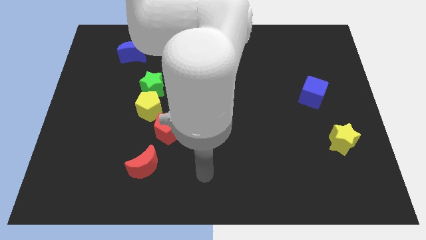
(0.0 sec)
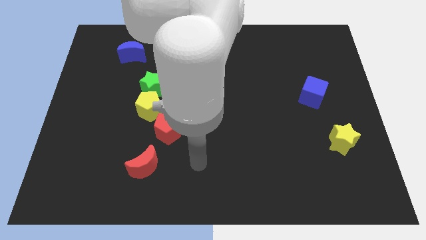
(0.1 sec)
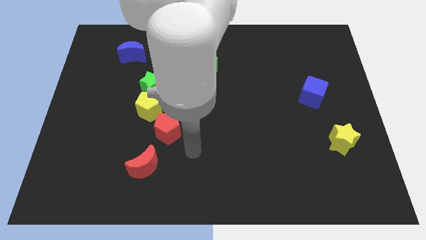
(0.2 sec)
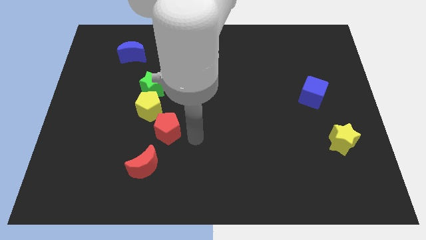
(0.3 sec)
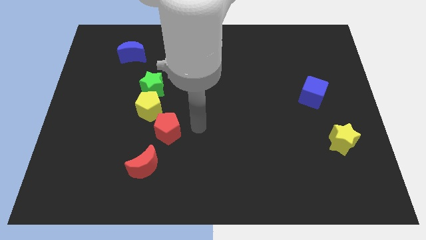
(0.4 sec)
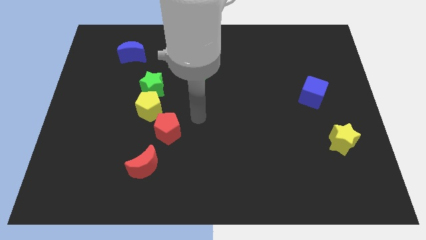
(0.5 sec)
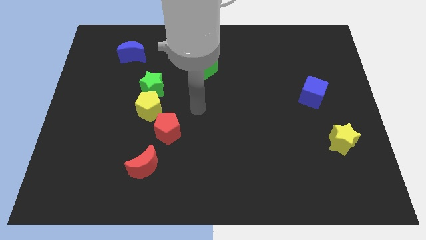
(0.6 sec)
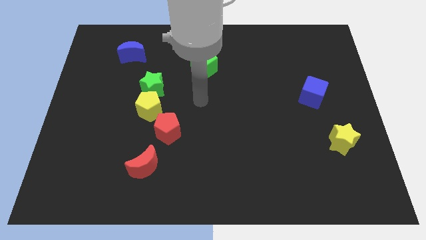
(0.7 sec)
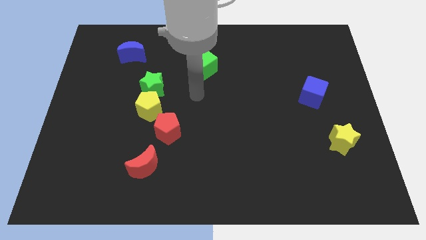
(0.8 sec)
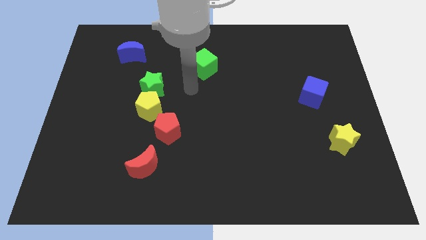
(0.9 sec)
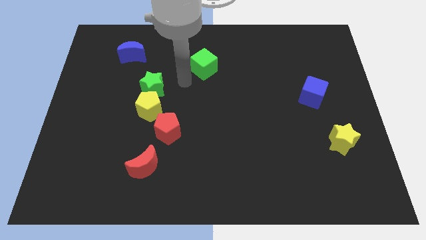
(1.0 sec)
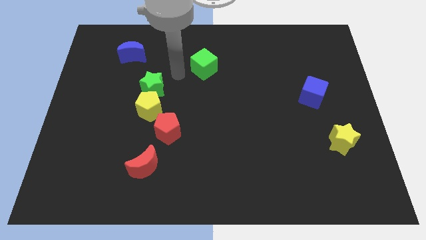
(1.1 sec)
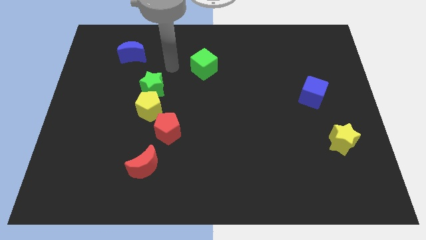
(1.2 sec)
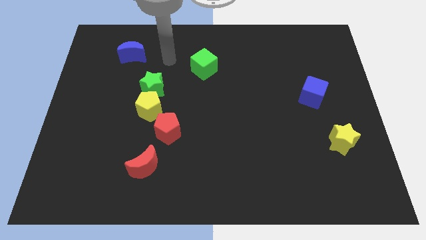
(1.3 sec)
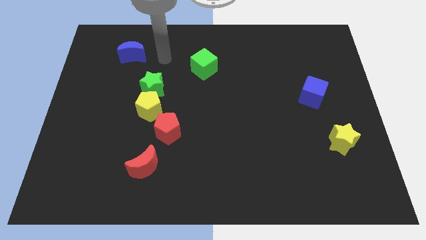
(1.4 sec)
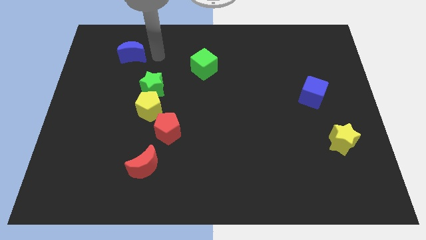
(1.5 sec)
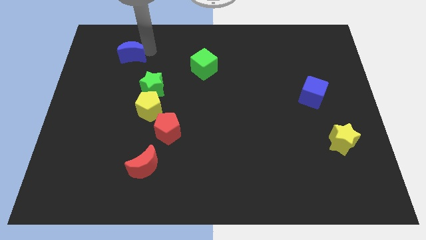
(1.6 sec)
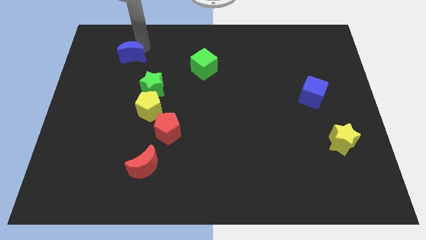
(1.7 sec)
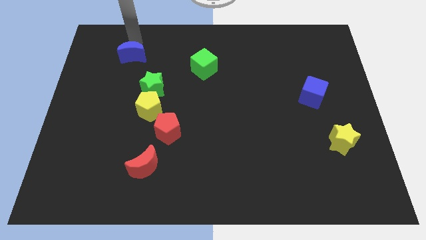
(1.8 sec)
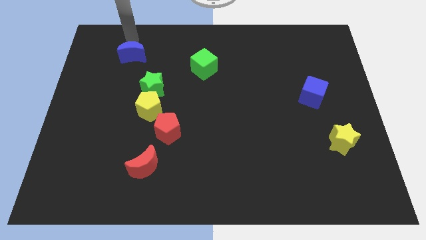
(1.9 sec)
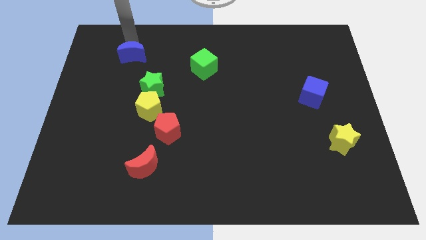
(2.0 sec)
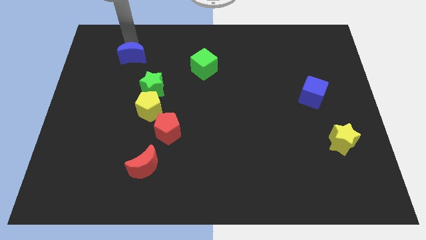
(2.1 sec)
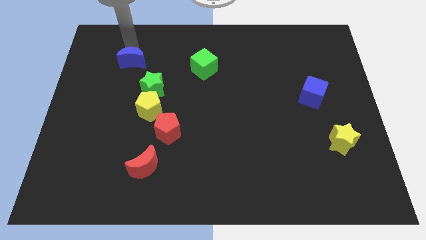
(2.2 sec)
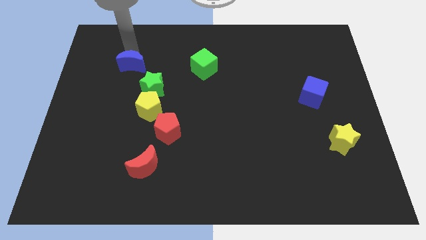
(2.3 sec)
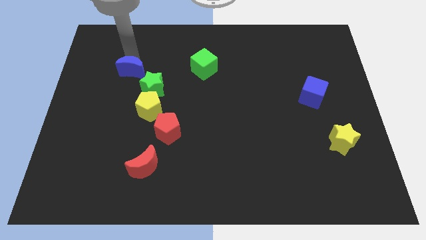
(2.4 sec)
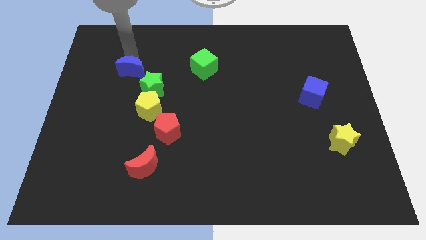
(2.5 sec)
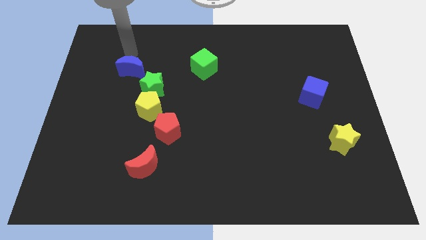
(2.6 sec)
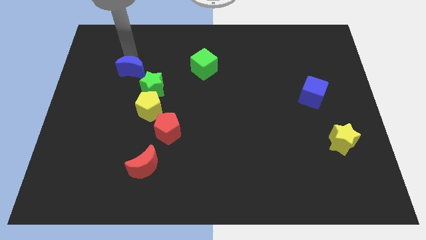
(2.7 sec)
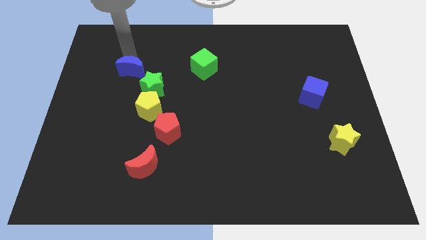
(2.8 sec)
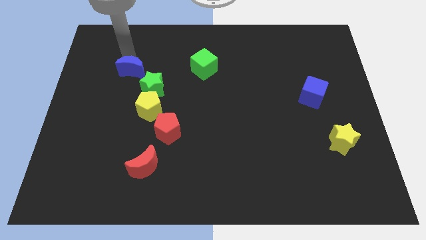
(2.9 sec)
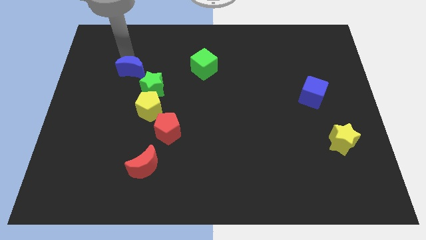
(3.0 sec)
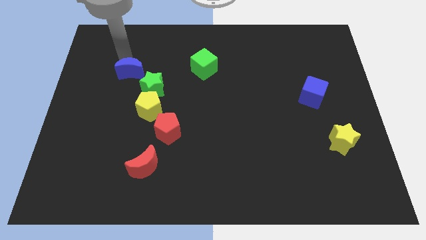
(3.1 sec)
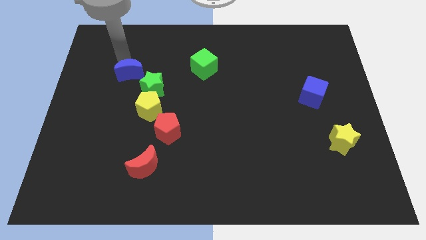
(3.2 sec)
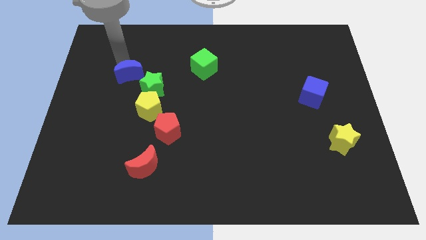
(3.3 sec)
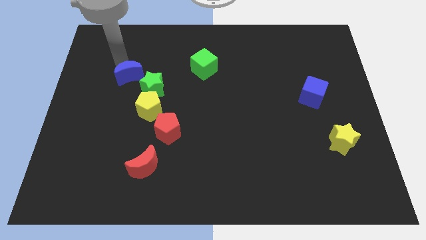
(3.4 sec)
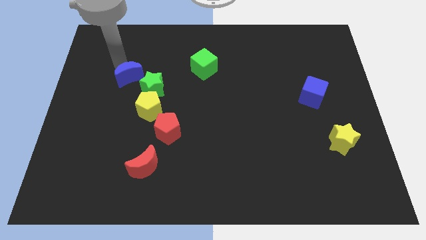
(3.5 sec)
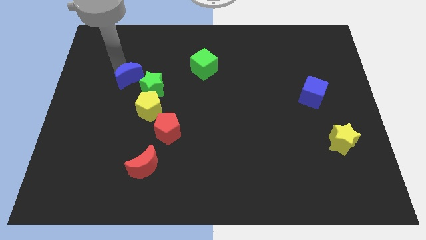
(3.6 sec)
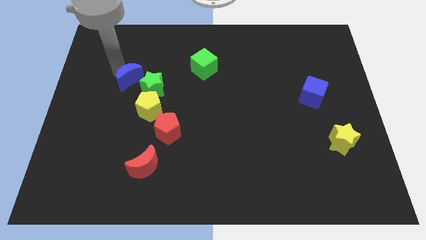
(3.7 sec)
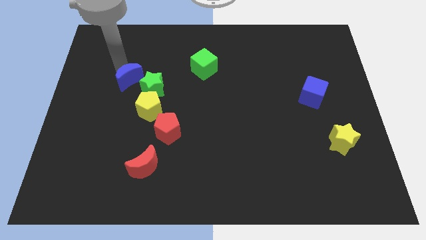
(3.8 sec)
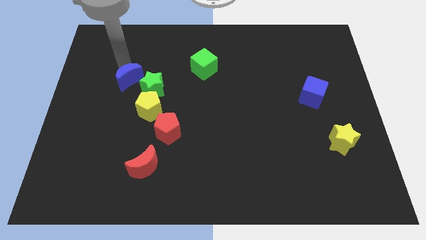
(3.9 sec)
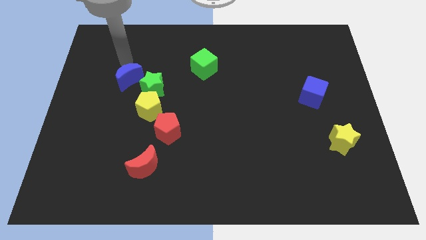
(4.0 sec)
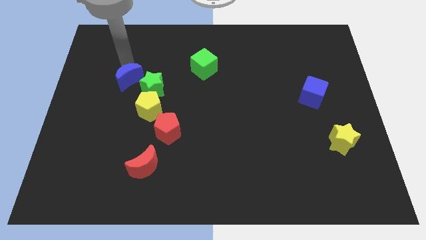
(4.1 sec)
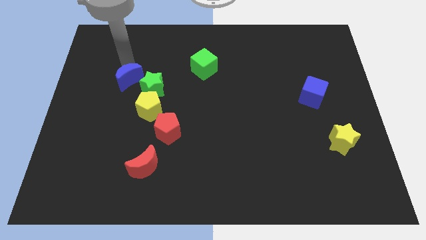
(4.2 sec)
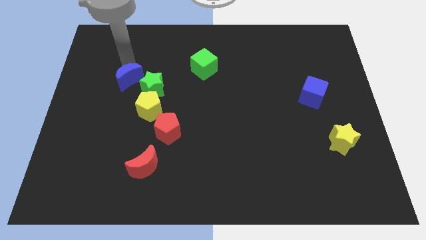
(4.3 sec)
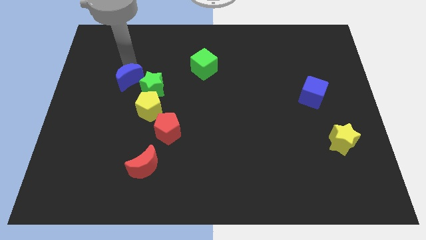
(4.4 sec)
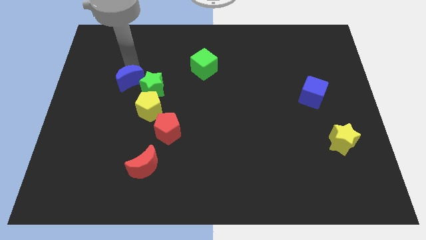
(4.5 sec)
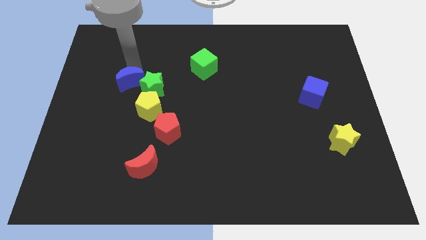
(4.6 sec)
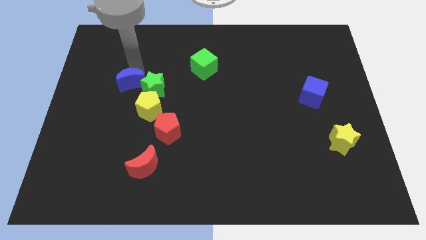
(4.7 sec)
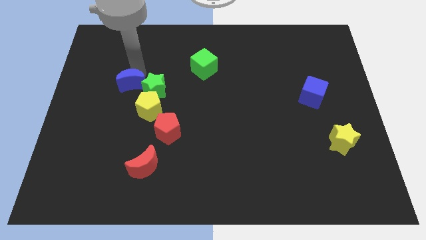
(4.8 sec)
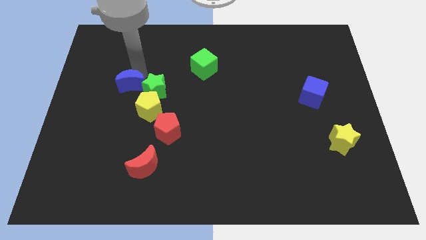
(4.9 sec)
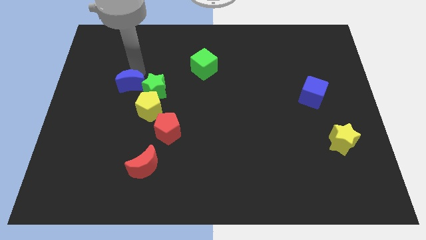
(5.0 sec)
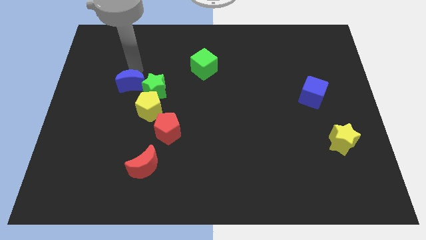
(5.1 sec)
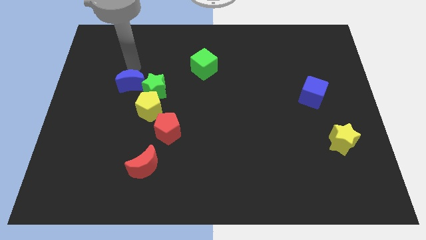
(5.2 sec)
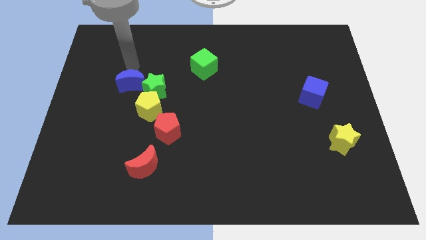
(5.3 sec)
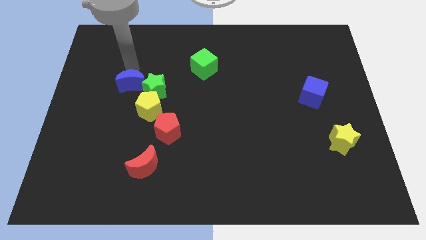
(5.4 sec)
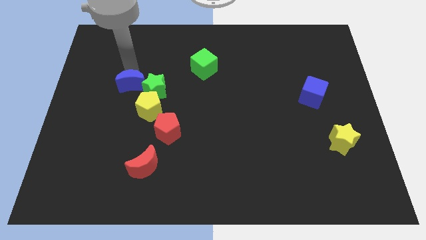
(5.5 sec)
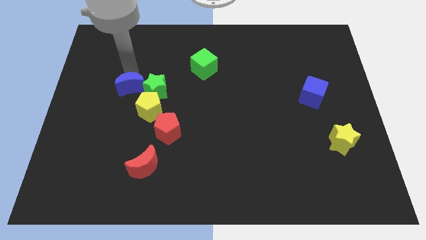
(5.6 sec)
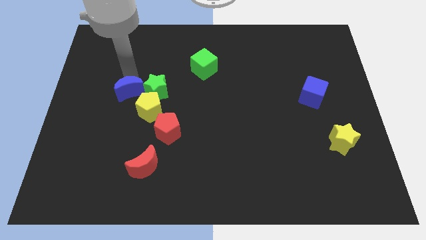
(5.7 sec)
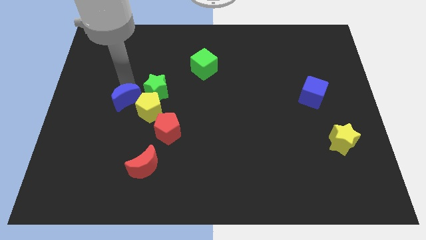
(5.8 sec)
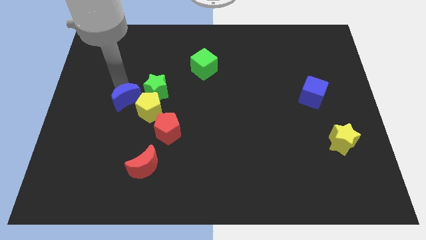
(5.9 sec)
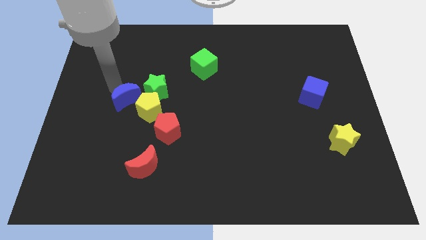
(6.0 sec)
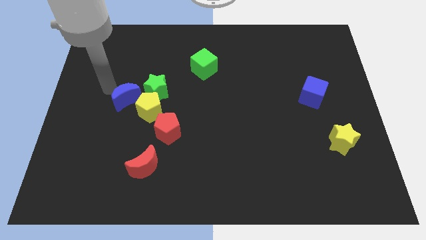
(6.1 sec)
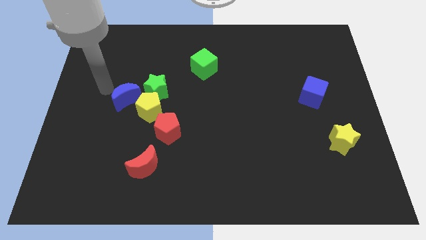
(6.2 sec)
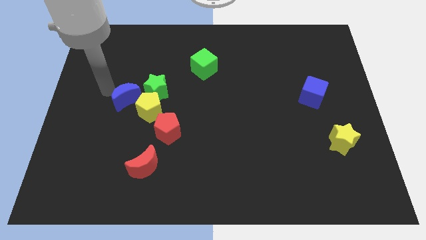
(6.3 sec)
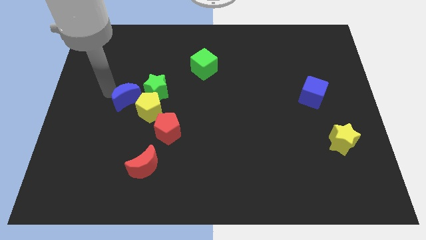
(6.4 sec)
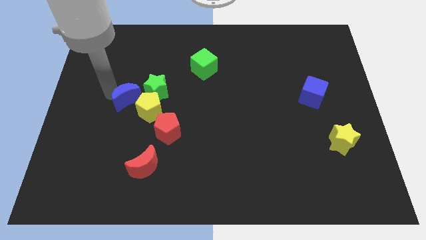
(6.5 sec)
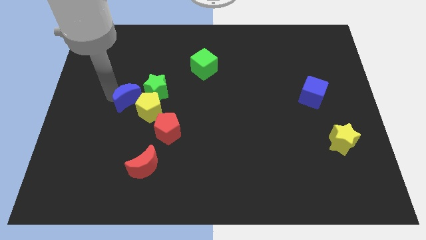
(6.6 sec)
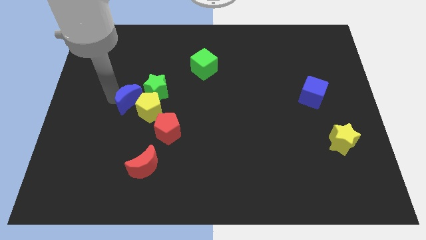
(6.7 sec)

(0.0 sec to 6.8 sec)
put the blue moon close to the yellow pentagon

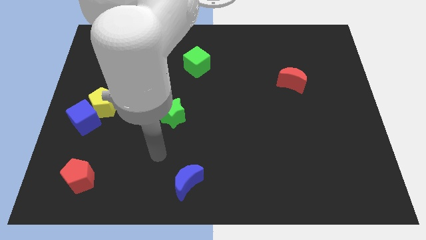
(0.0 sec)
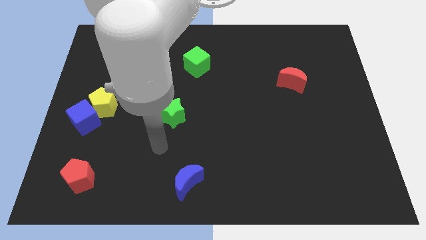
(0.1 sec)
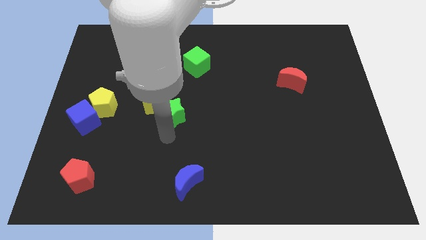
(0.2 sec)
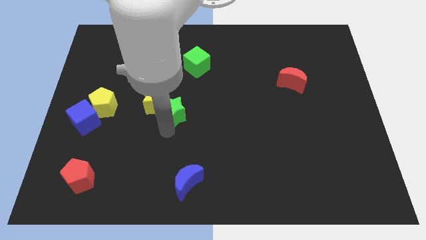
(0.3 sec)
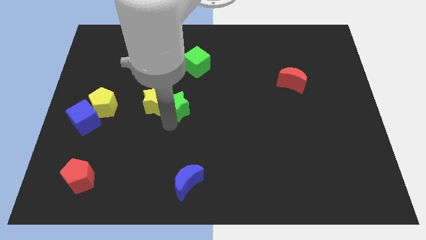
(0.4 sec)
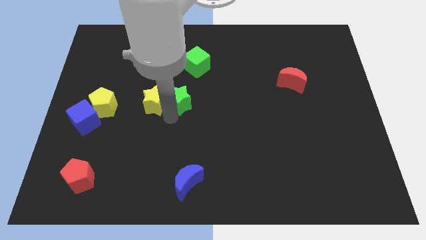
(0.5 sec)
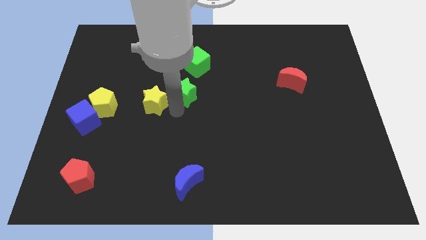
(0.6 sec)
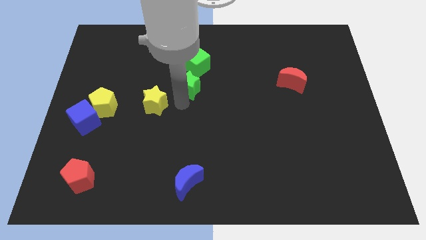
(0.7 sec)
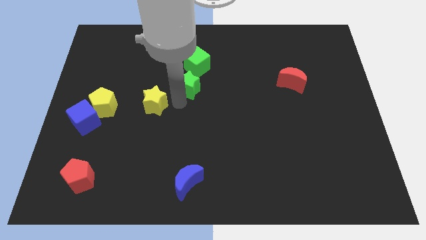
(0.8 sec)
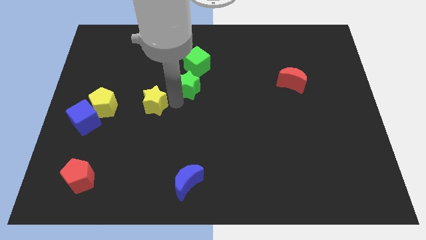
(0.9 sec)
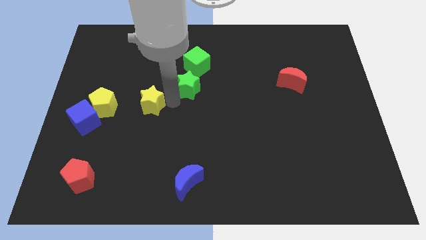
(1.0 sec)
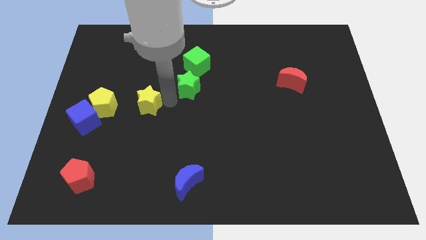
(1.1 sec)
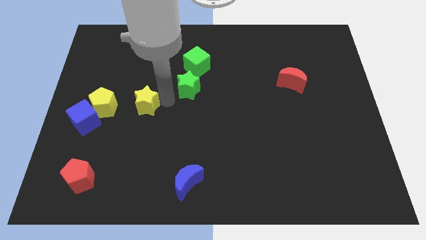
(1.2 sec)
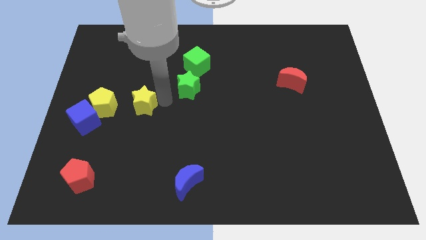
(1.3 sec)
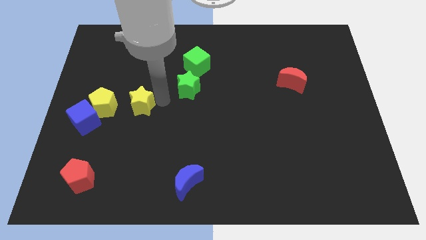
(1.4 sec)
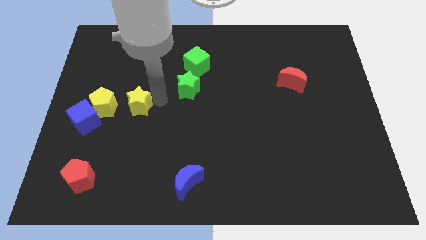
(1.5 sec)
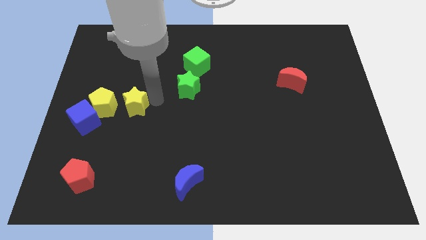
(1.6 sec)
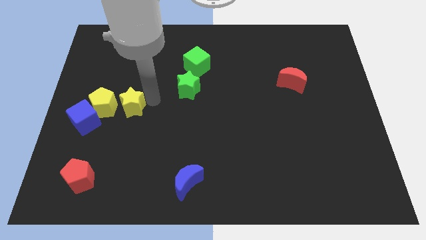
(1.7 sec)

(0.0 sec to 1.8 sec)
put the yellow star to the yellow pentagon
